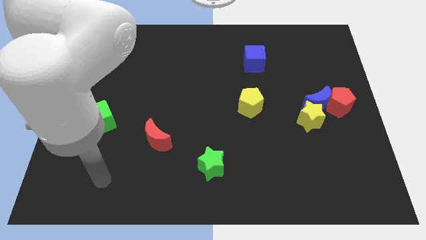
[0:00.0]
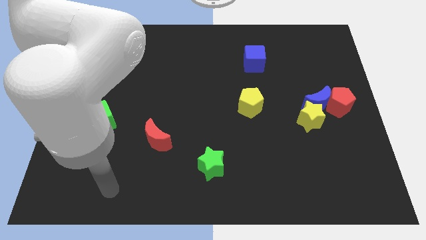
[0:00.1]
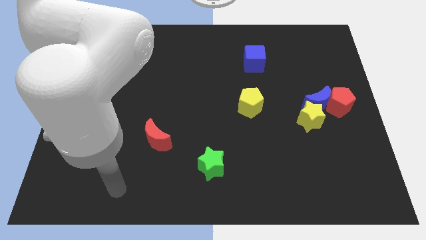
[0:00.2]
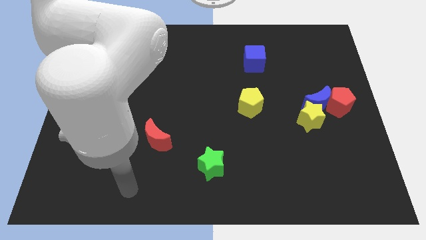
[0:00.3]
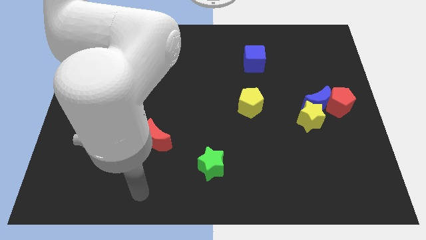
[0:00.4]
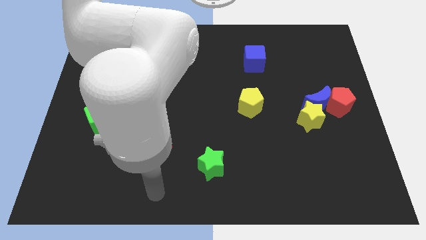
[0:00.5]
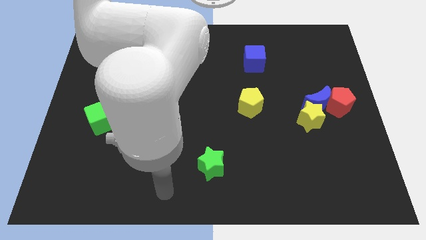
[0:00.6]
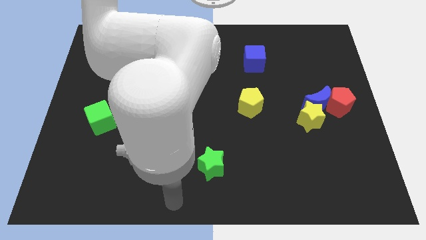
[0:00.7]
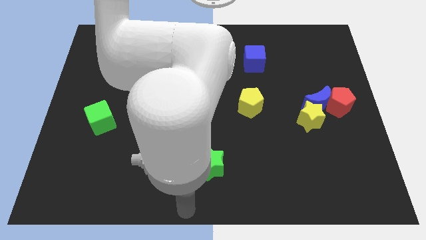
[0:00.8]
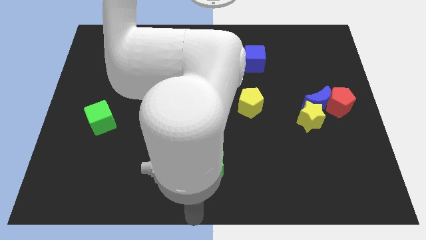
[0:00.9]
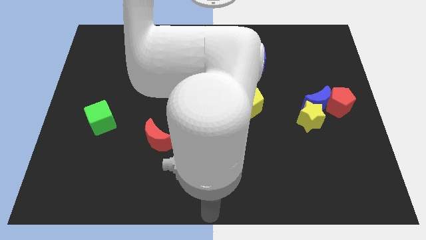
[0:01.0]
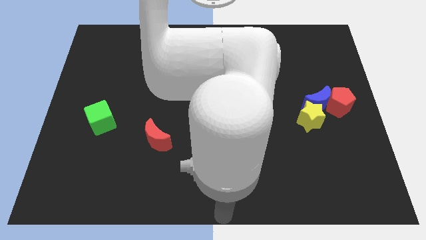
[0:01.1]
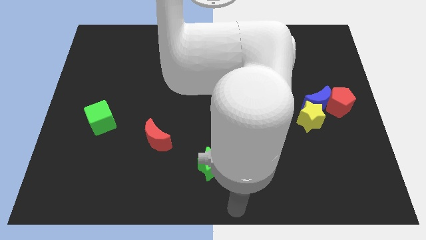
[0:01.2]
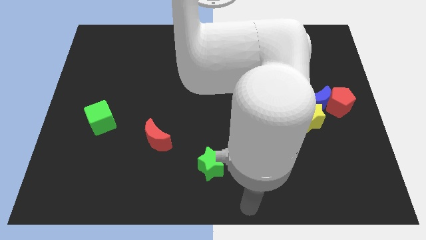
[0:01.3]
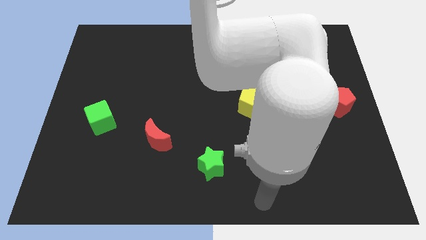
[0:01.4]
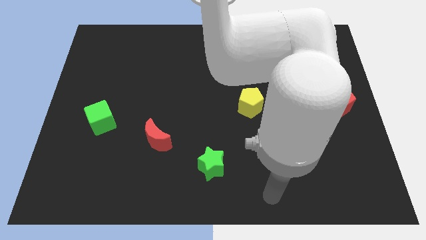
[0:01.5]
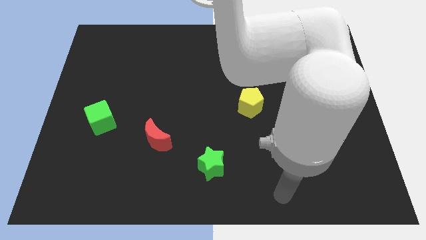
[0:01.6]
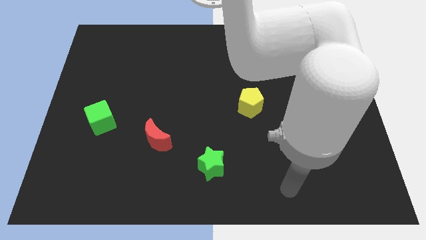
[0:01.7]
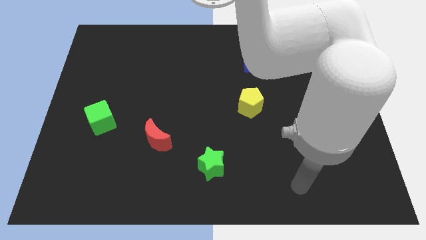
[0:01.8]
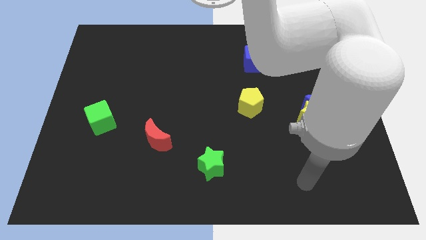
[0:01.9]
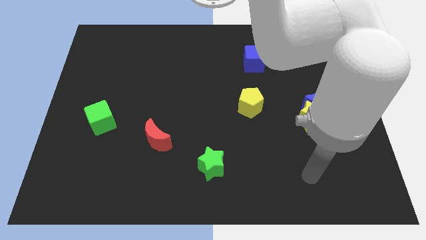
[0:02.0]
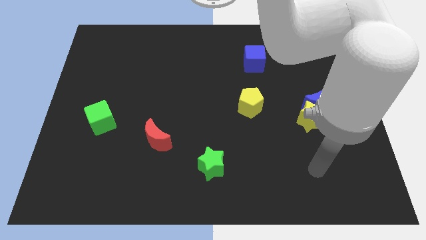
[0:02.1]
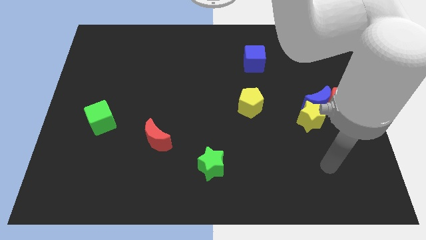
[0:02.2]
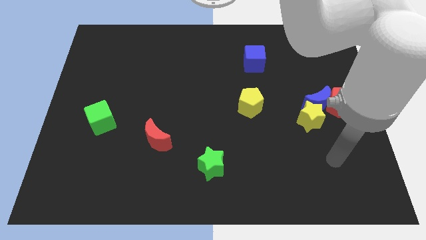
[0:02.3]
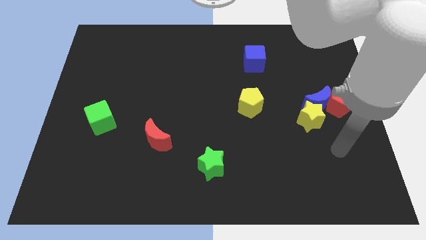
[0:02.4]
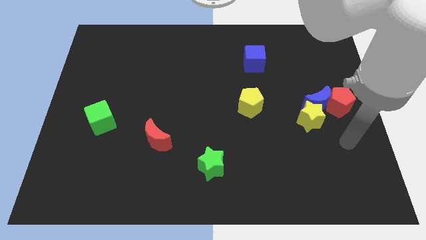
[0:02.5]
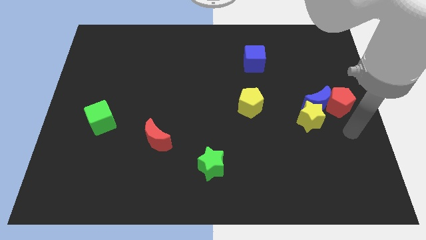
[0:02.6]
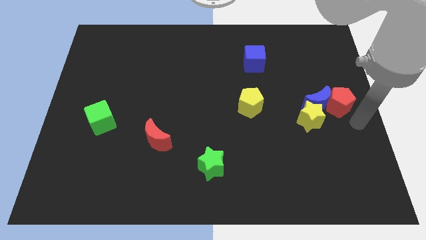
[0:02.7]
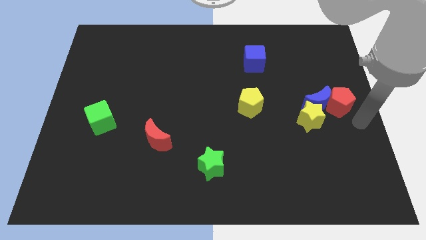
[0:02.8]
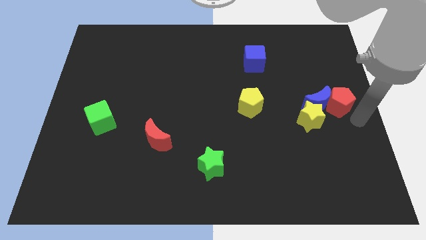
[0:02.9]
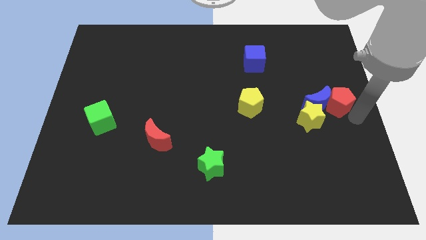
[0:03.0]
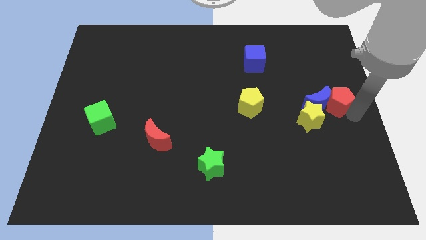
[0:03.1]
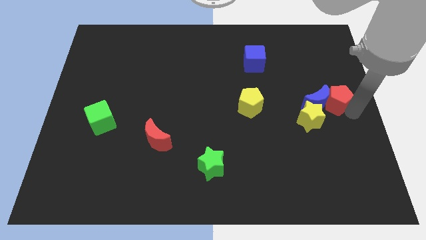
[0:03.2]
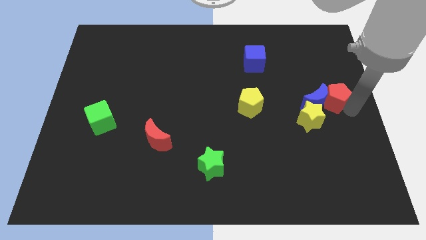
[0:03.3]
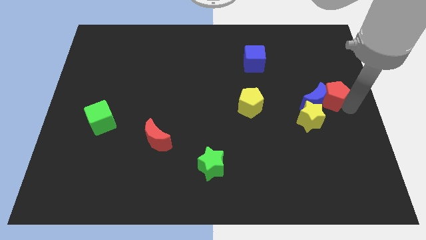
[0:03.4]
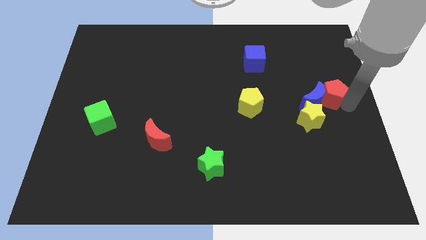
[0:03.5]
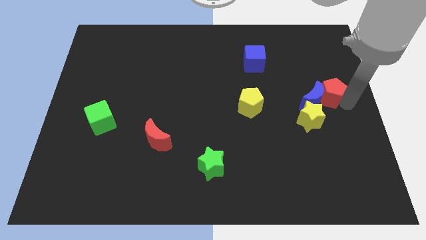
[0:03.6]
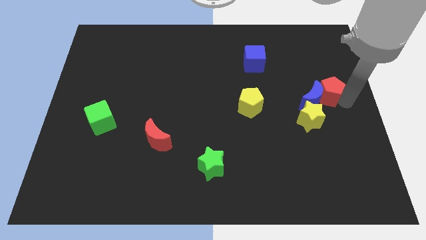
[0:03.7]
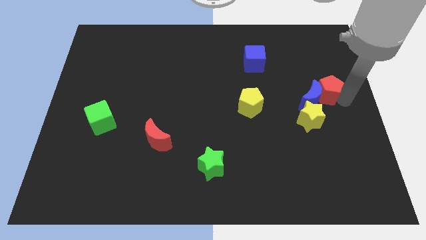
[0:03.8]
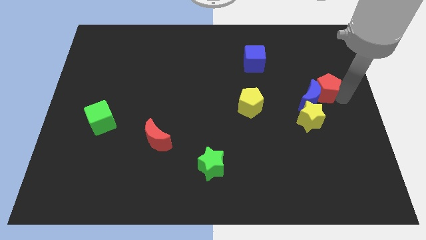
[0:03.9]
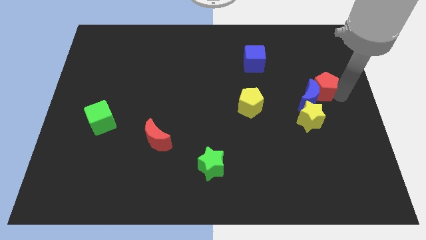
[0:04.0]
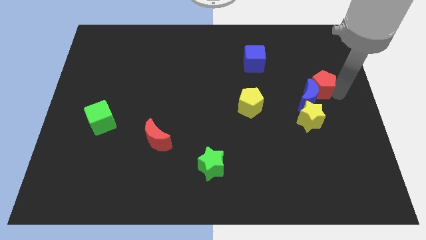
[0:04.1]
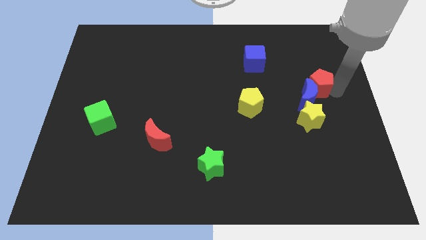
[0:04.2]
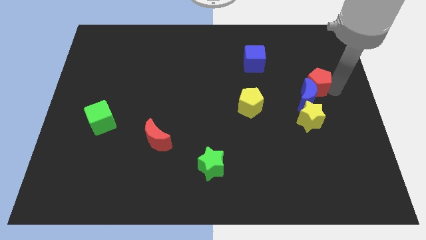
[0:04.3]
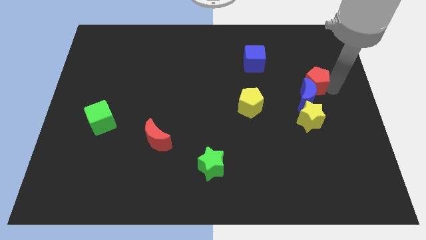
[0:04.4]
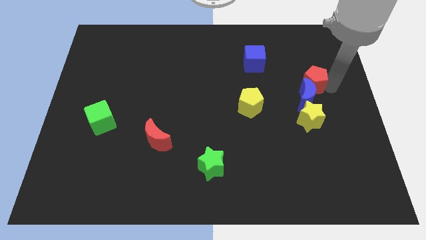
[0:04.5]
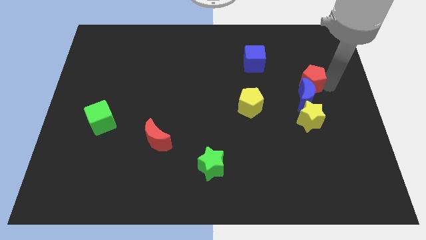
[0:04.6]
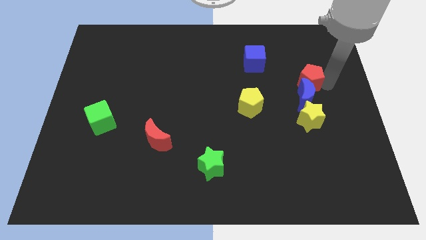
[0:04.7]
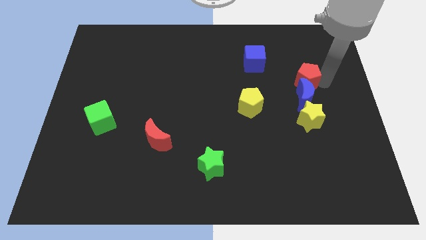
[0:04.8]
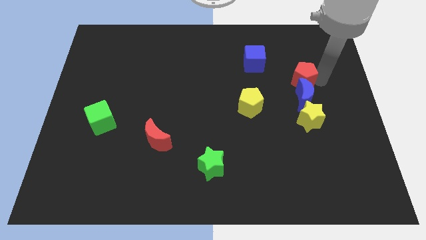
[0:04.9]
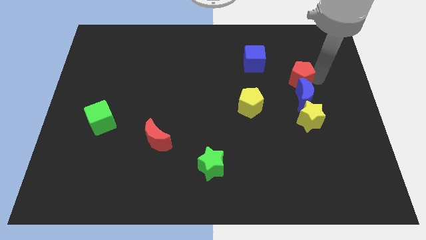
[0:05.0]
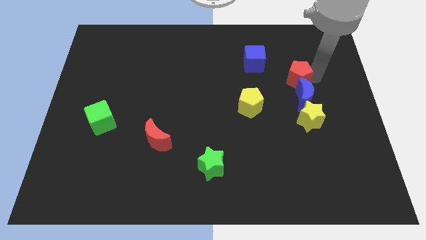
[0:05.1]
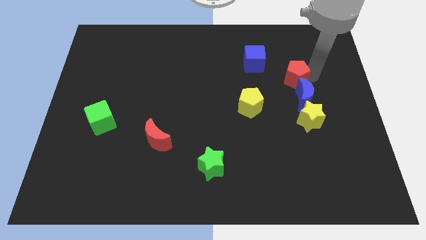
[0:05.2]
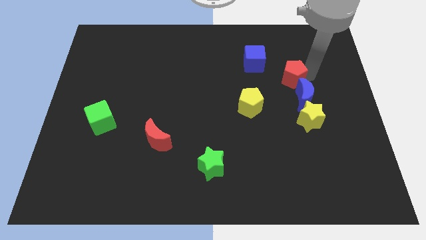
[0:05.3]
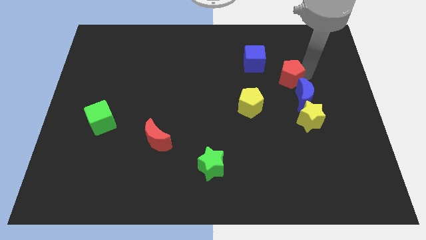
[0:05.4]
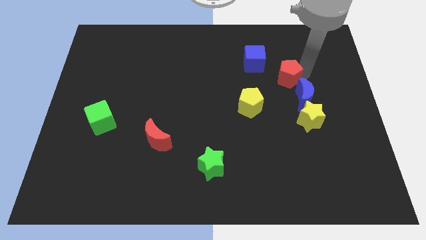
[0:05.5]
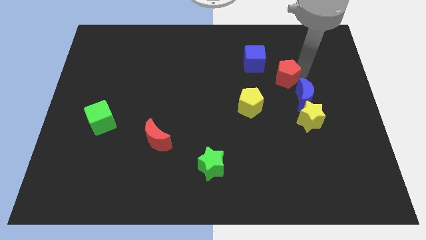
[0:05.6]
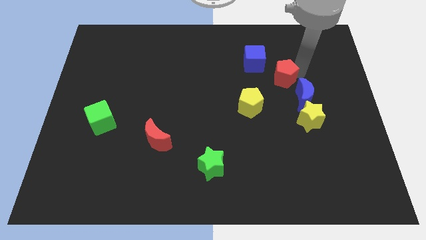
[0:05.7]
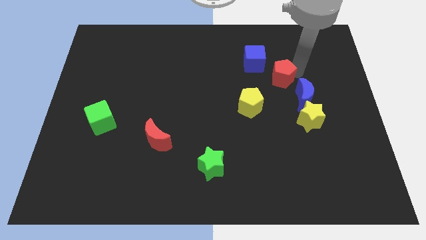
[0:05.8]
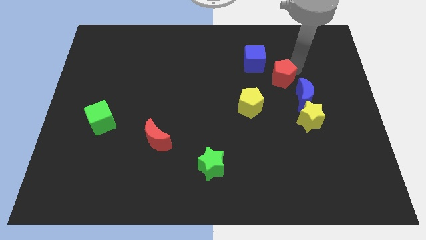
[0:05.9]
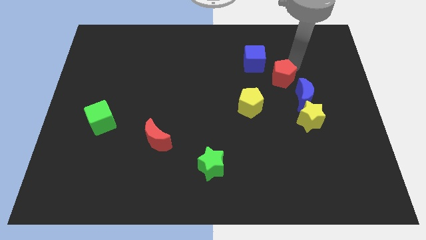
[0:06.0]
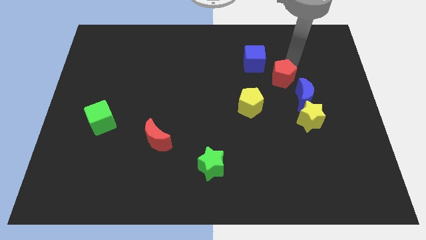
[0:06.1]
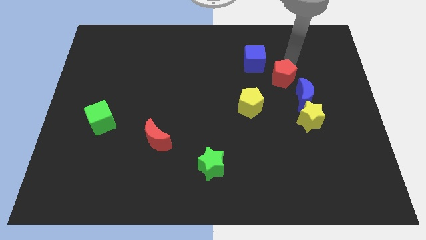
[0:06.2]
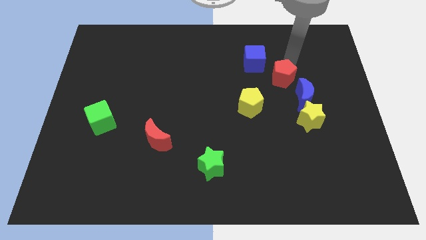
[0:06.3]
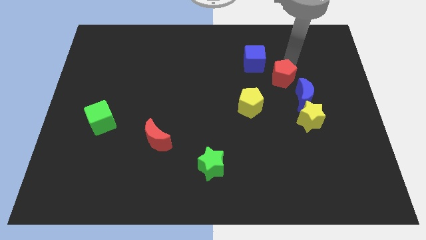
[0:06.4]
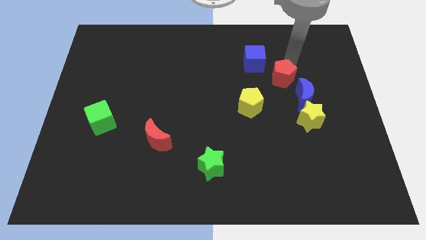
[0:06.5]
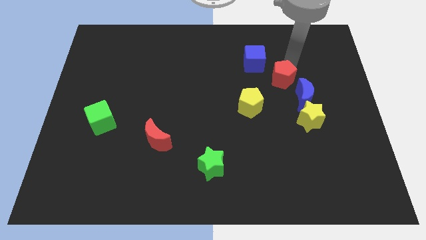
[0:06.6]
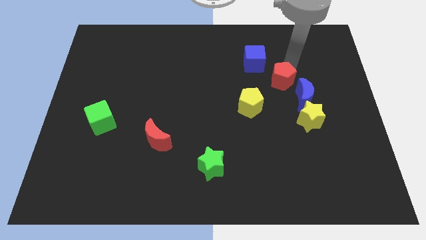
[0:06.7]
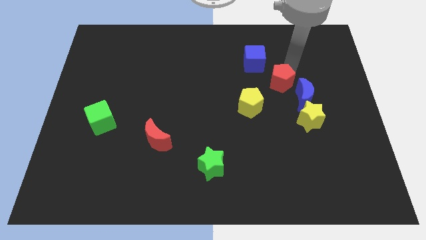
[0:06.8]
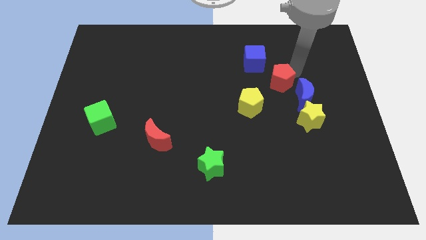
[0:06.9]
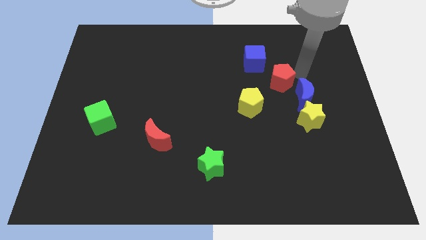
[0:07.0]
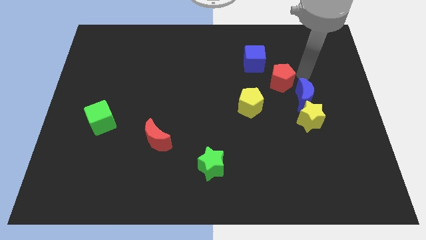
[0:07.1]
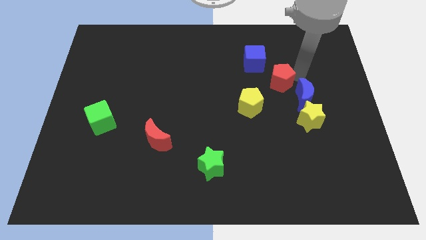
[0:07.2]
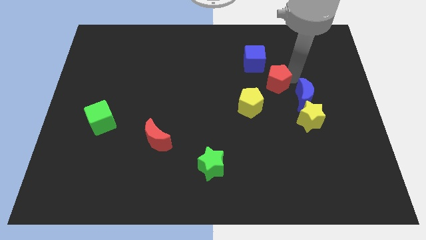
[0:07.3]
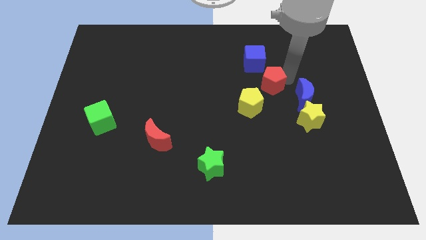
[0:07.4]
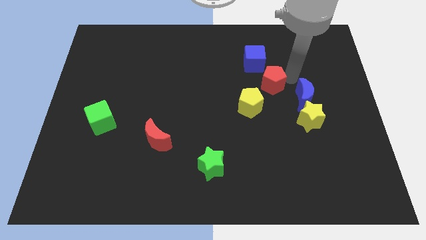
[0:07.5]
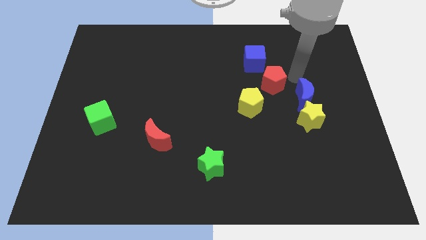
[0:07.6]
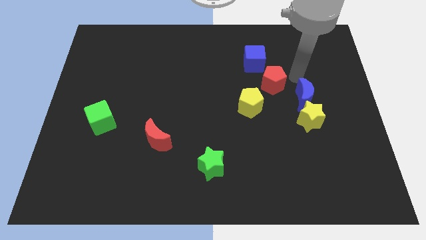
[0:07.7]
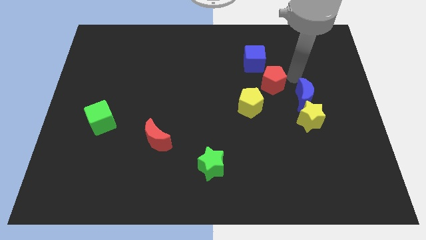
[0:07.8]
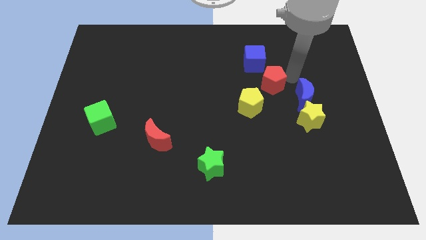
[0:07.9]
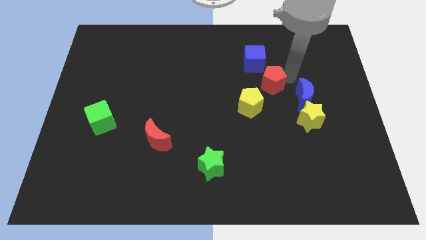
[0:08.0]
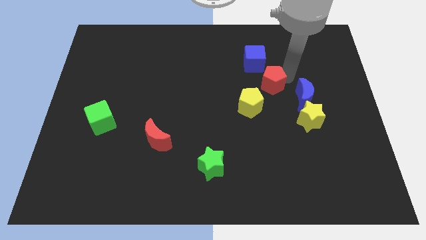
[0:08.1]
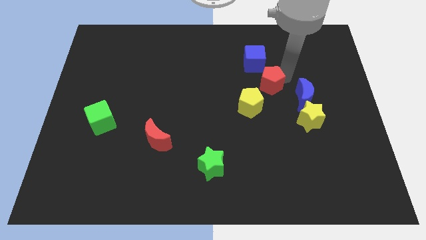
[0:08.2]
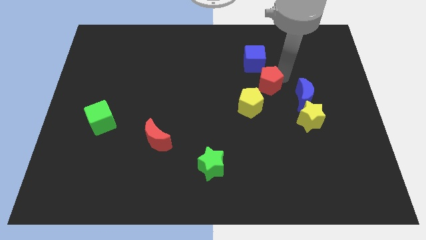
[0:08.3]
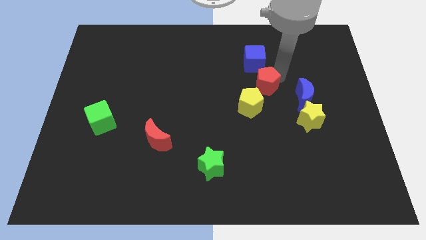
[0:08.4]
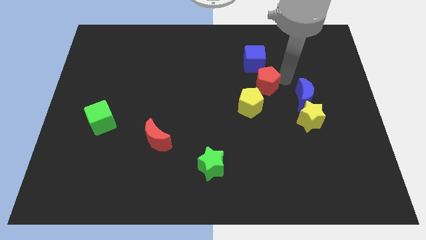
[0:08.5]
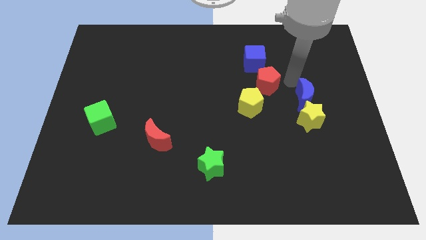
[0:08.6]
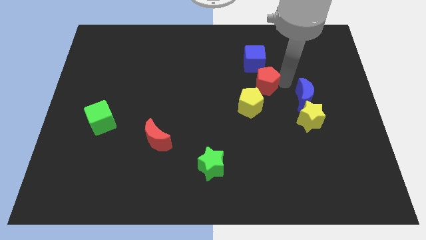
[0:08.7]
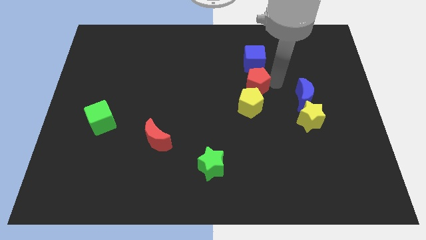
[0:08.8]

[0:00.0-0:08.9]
push the red pentagon to the center
